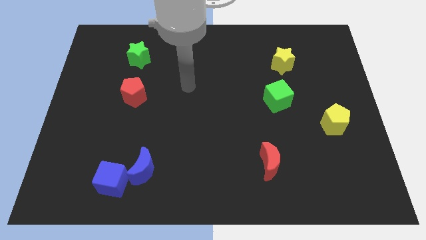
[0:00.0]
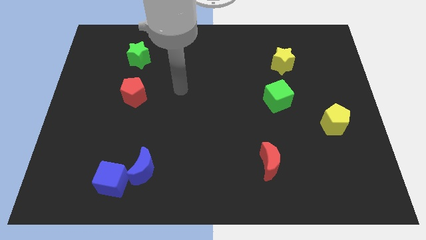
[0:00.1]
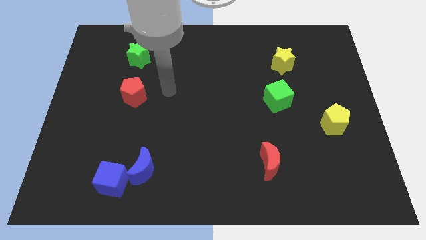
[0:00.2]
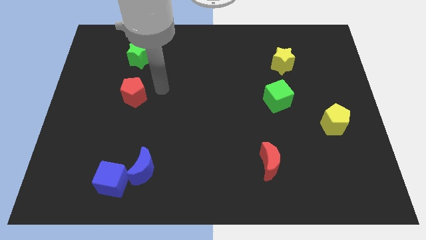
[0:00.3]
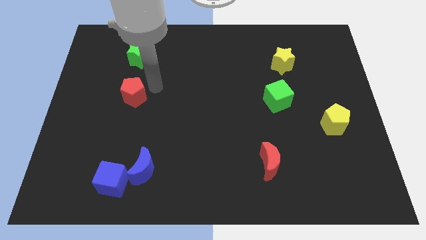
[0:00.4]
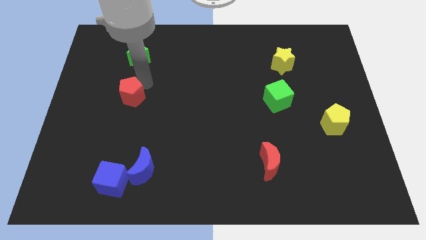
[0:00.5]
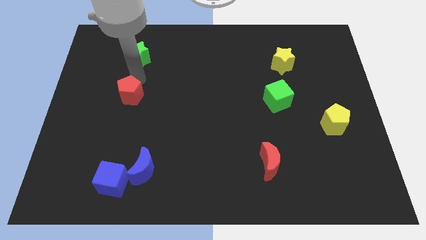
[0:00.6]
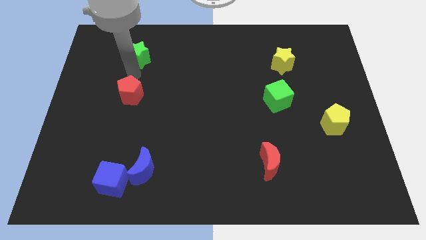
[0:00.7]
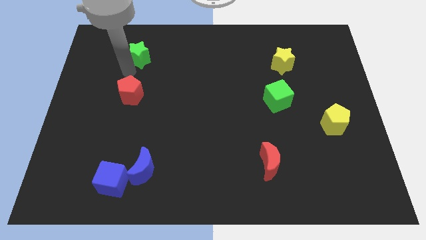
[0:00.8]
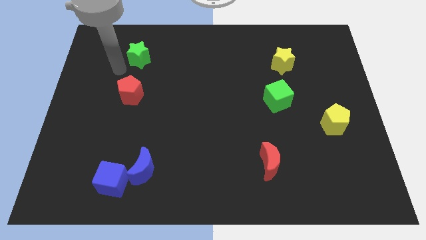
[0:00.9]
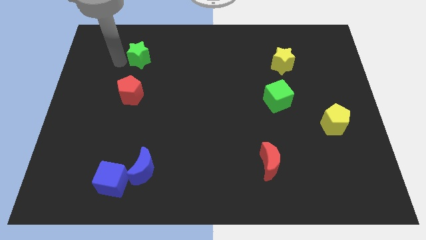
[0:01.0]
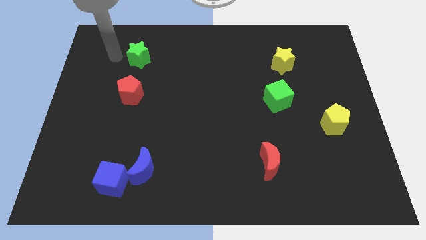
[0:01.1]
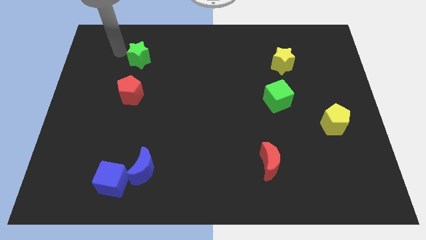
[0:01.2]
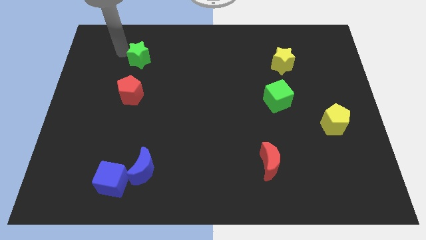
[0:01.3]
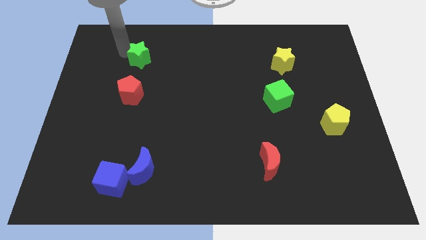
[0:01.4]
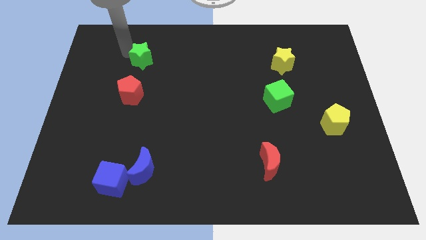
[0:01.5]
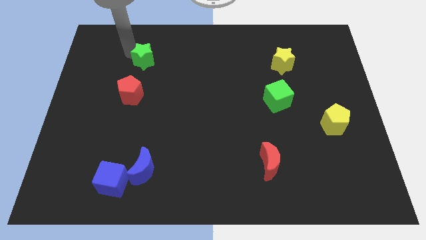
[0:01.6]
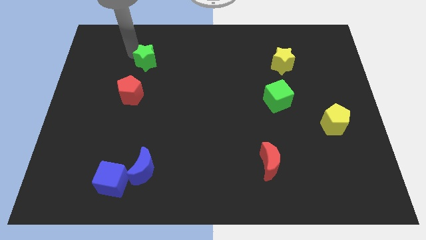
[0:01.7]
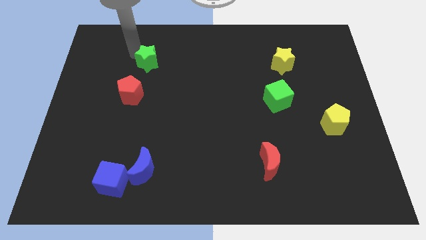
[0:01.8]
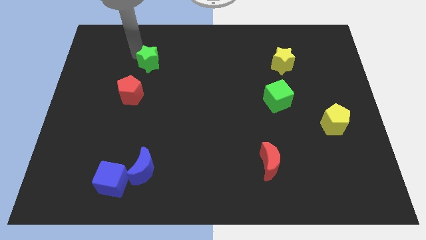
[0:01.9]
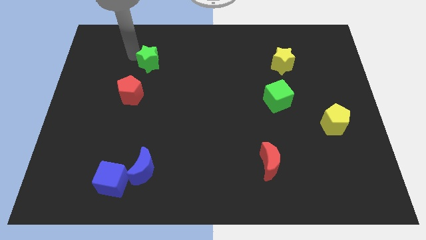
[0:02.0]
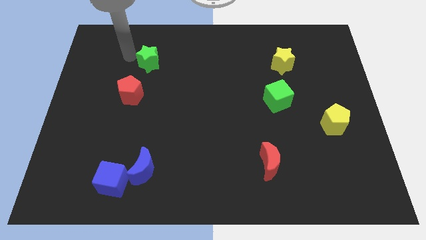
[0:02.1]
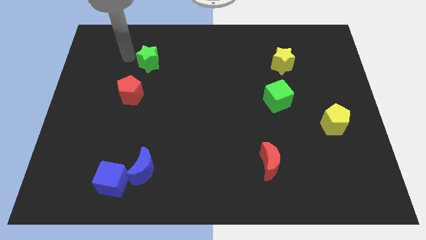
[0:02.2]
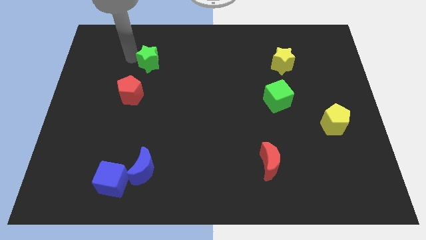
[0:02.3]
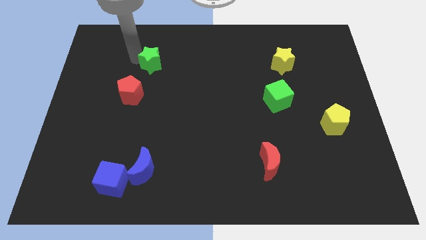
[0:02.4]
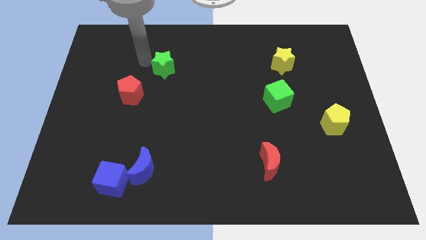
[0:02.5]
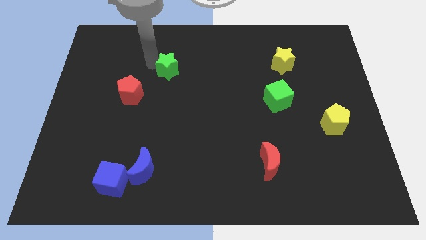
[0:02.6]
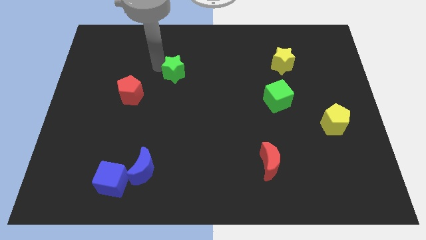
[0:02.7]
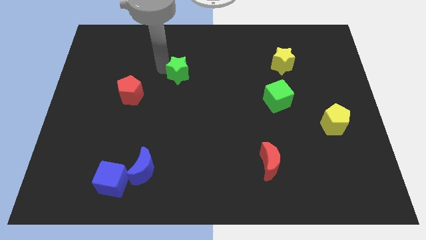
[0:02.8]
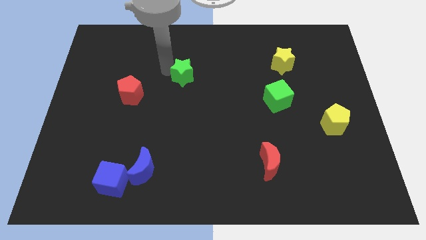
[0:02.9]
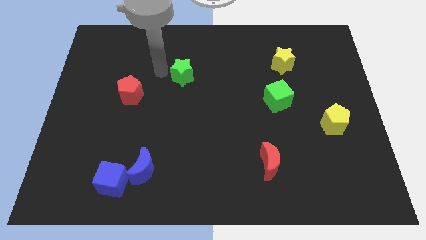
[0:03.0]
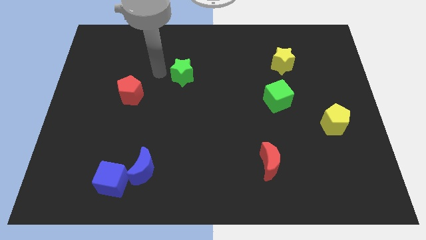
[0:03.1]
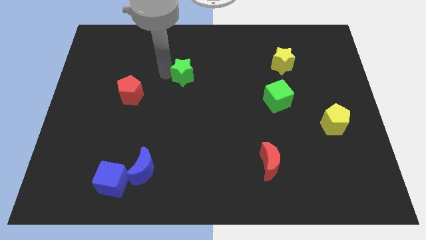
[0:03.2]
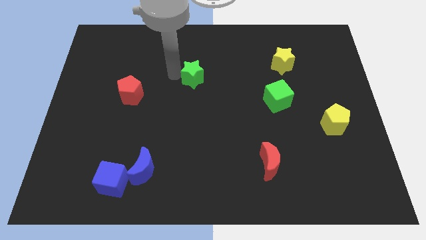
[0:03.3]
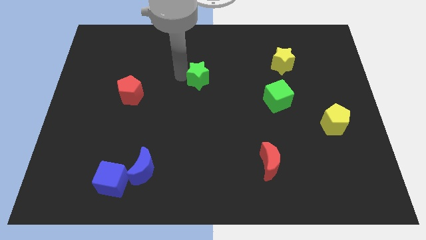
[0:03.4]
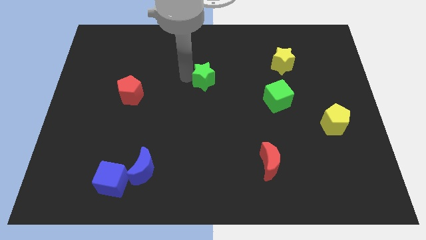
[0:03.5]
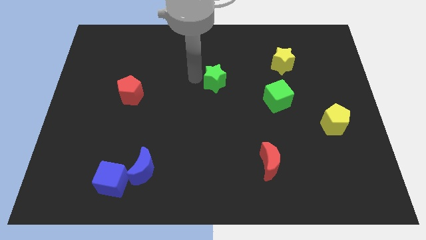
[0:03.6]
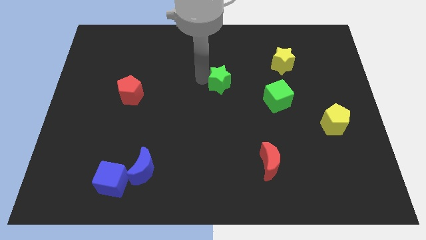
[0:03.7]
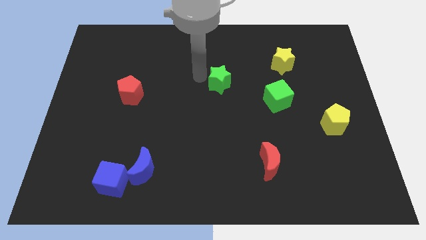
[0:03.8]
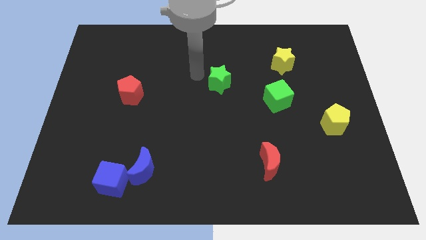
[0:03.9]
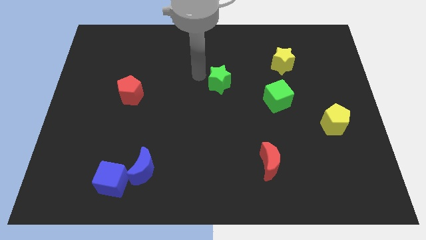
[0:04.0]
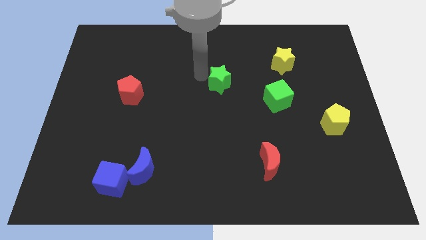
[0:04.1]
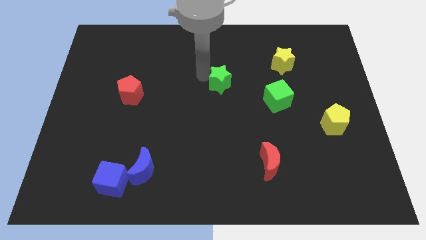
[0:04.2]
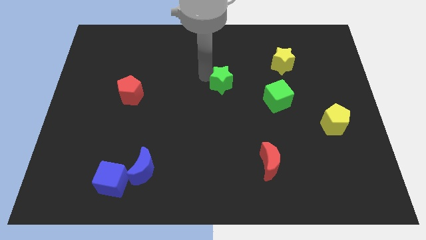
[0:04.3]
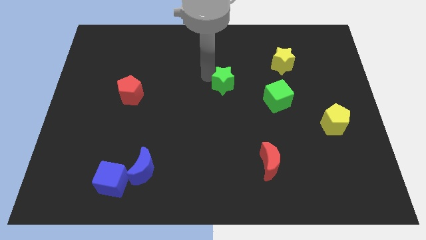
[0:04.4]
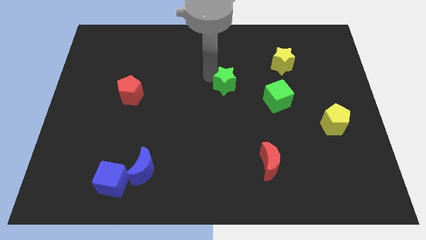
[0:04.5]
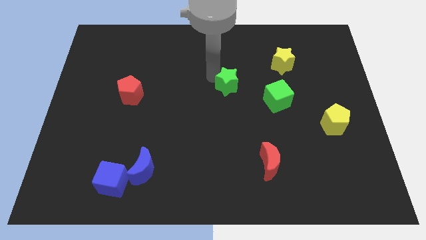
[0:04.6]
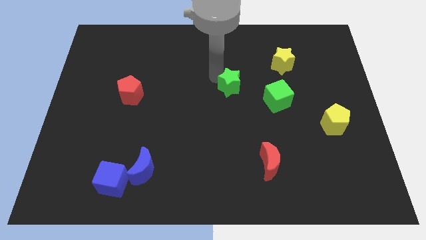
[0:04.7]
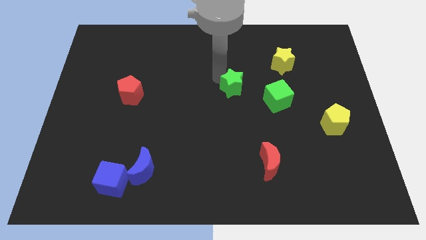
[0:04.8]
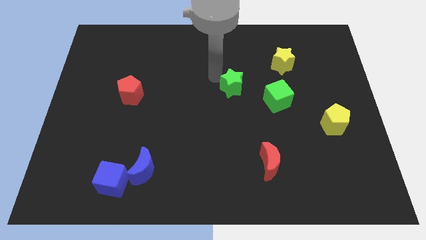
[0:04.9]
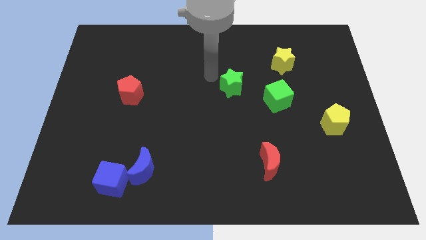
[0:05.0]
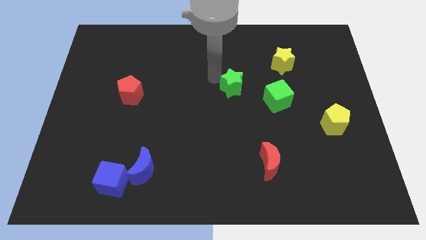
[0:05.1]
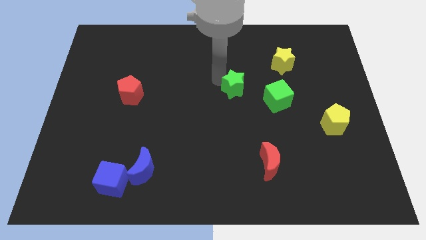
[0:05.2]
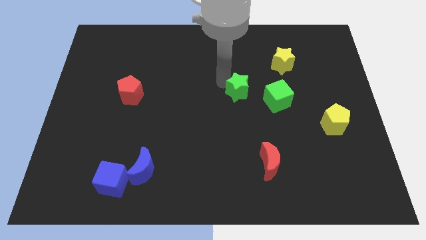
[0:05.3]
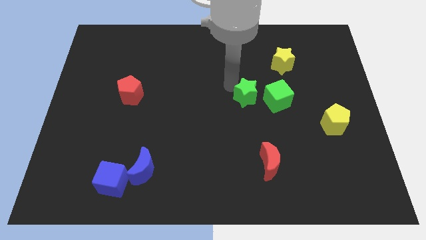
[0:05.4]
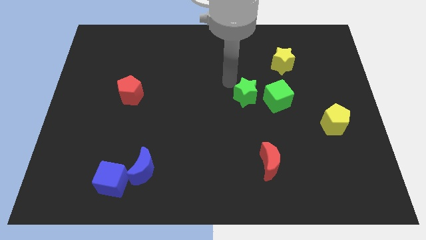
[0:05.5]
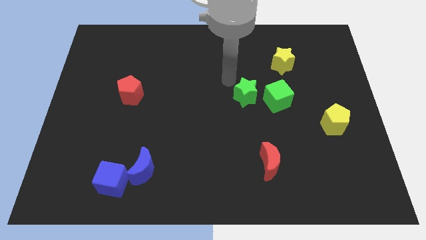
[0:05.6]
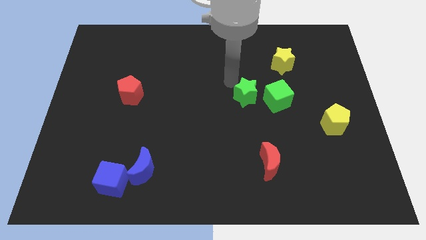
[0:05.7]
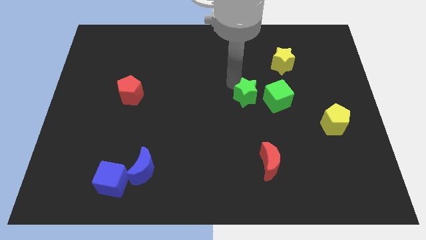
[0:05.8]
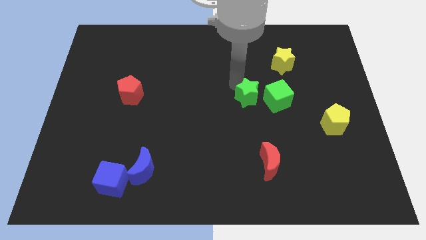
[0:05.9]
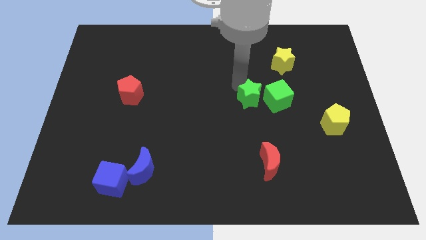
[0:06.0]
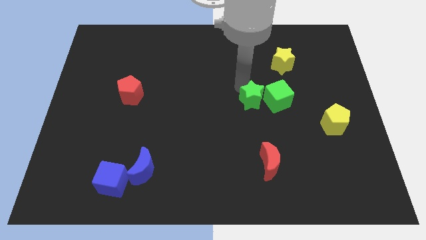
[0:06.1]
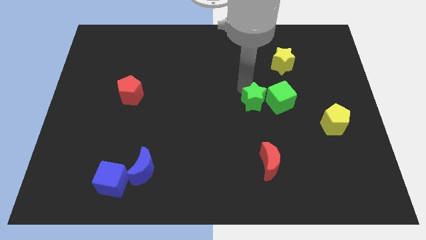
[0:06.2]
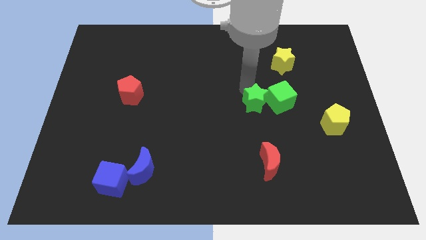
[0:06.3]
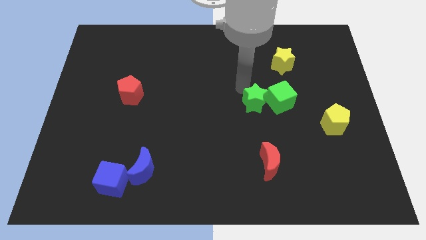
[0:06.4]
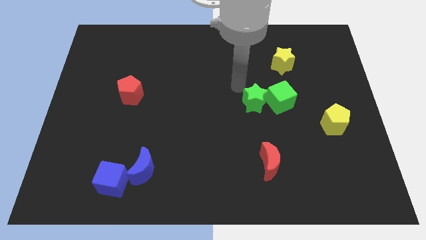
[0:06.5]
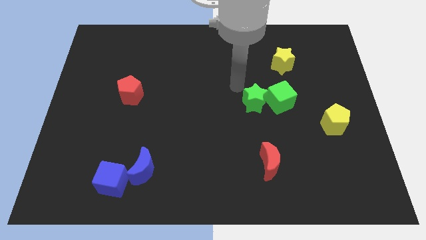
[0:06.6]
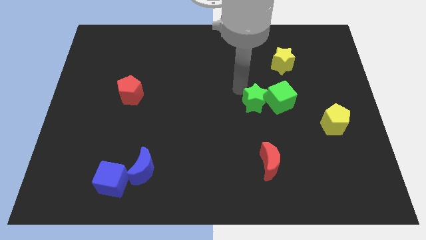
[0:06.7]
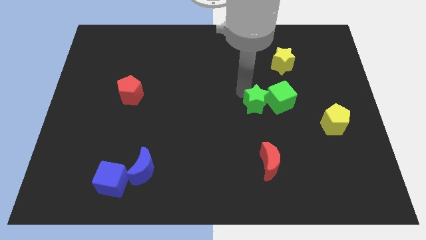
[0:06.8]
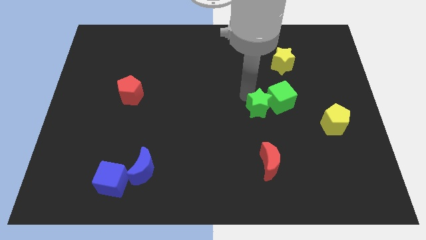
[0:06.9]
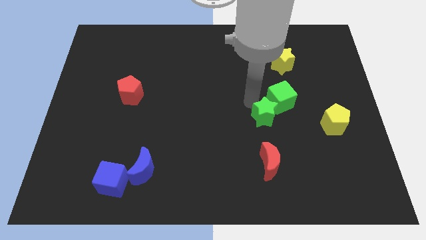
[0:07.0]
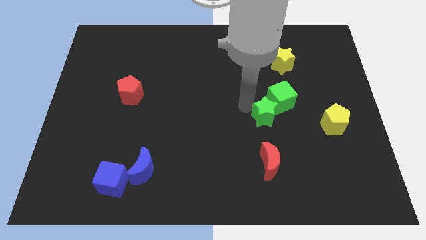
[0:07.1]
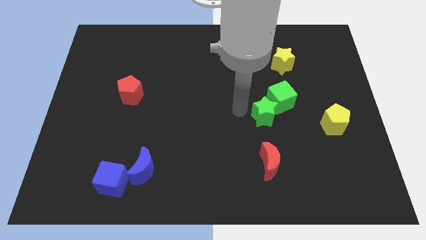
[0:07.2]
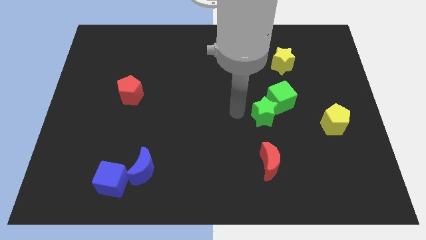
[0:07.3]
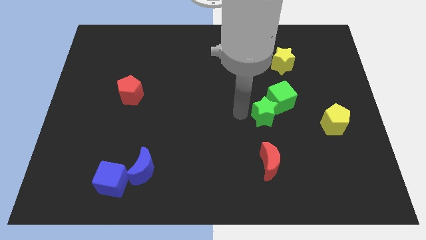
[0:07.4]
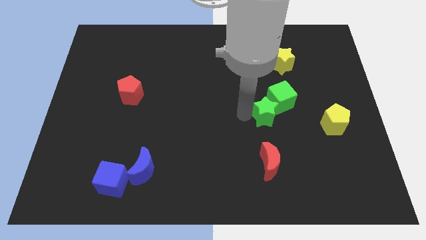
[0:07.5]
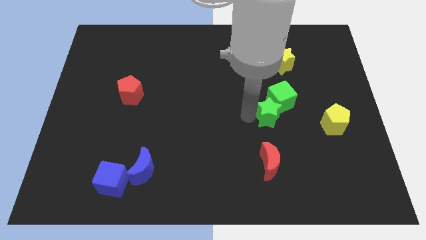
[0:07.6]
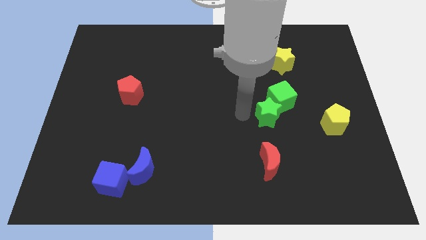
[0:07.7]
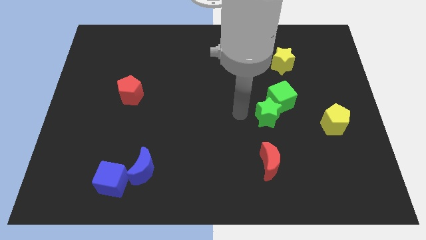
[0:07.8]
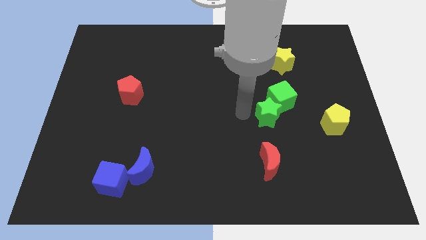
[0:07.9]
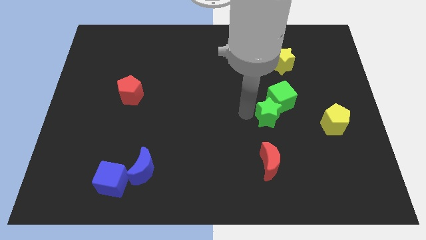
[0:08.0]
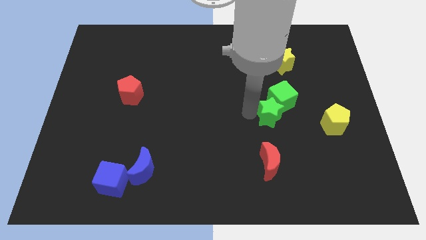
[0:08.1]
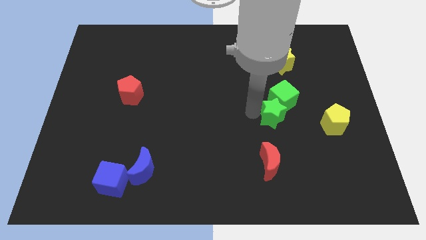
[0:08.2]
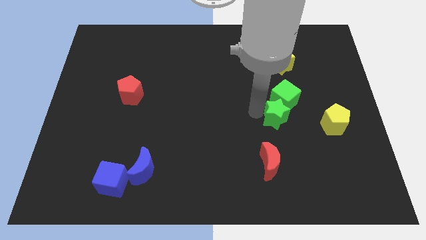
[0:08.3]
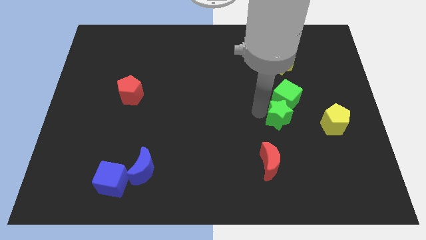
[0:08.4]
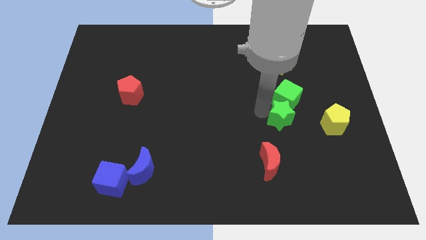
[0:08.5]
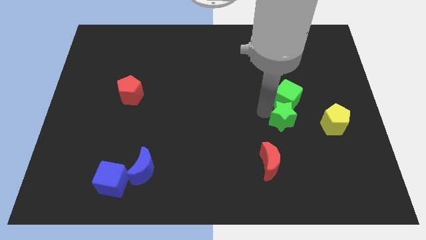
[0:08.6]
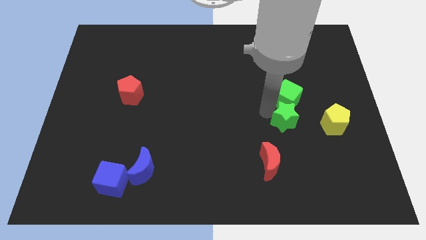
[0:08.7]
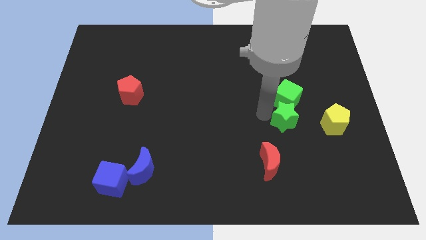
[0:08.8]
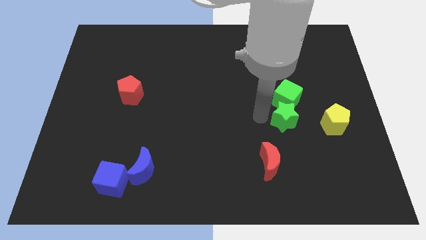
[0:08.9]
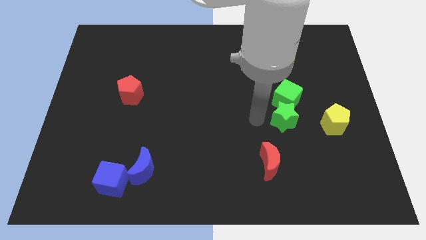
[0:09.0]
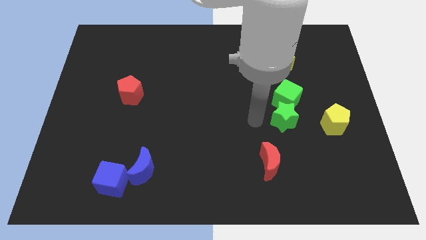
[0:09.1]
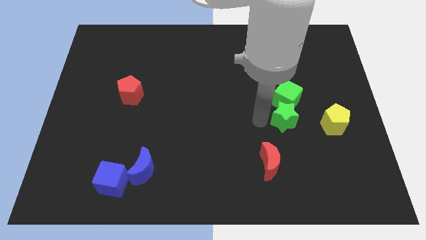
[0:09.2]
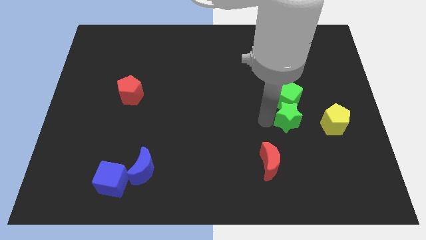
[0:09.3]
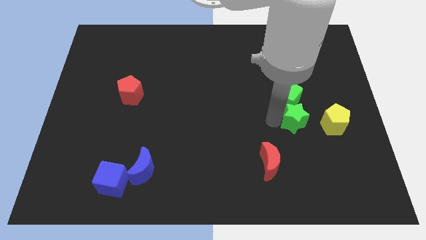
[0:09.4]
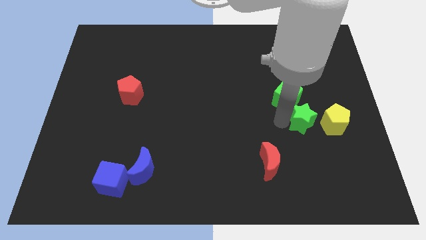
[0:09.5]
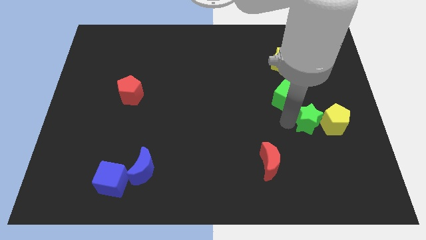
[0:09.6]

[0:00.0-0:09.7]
put the green star to the yellow pentagon
